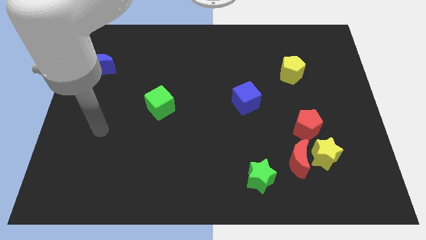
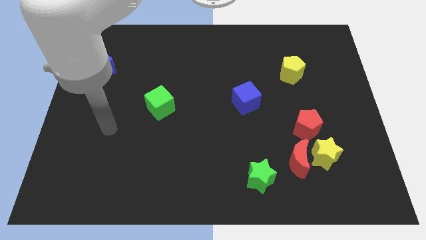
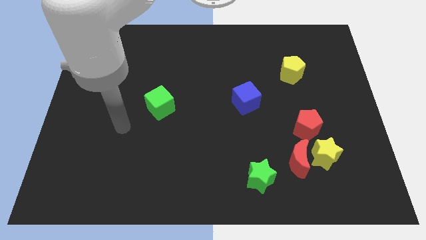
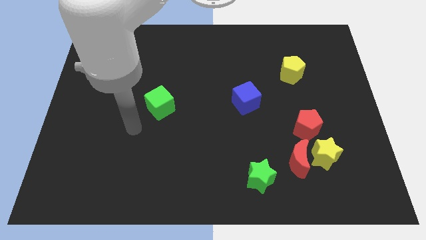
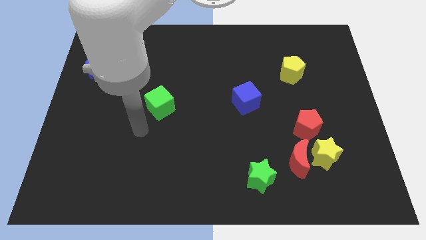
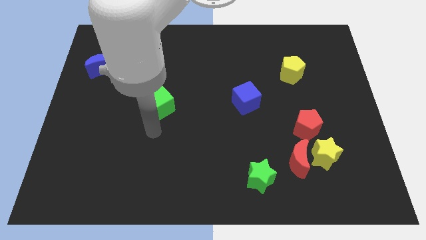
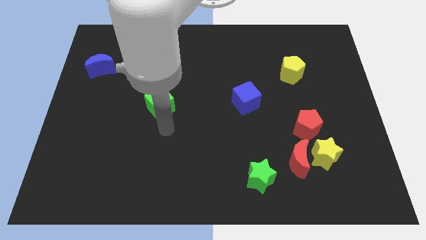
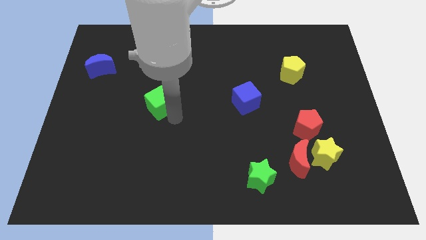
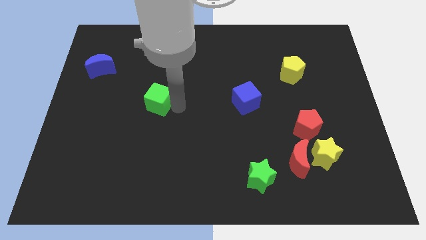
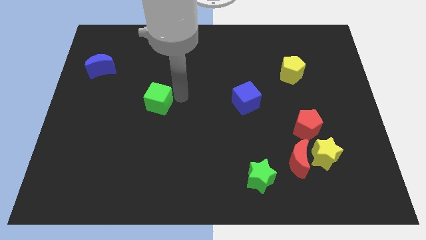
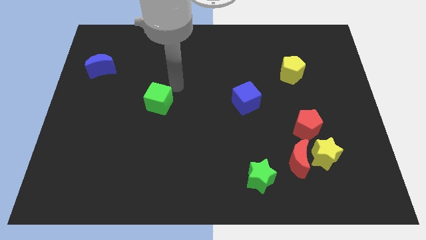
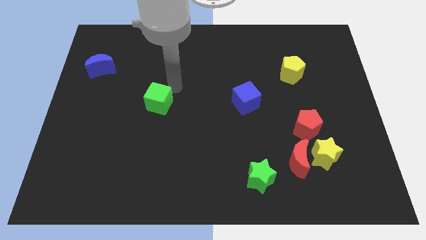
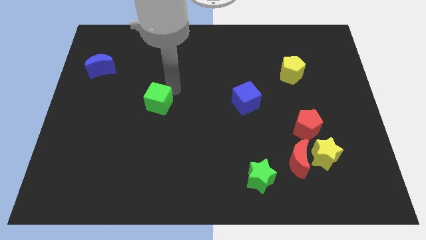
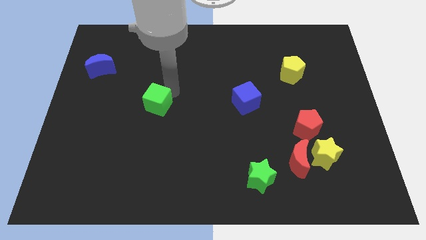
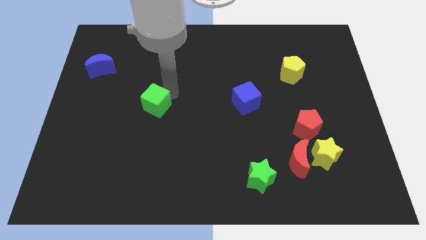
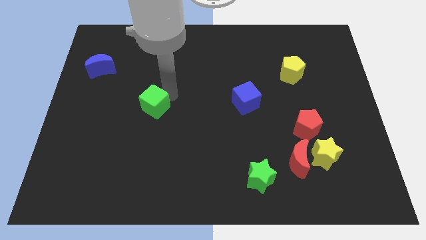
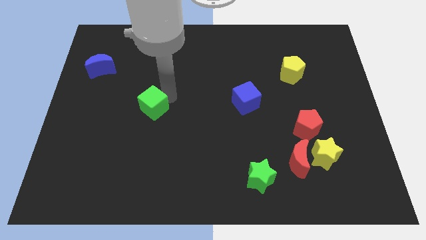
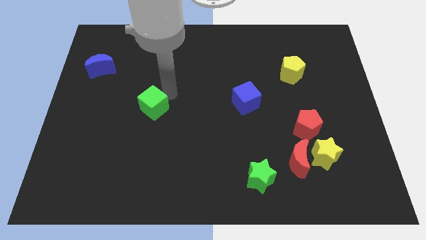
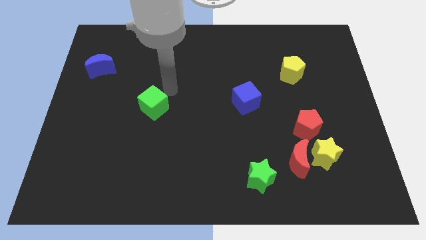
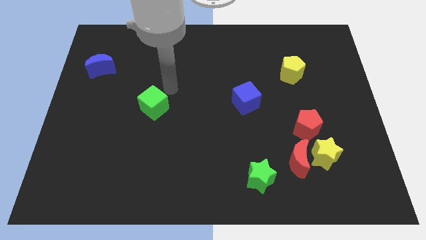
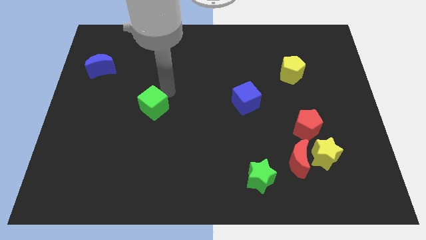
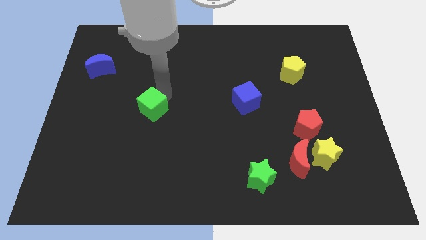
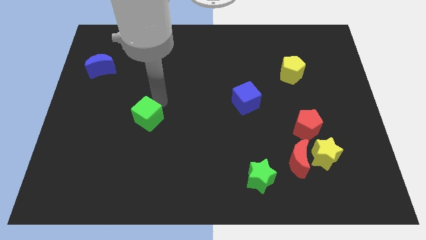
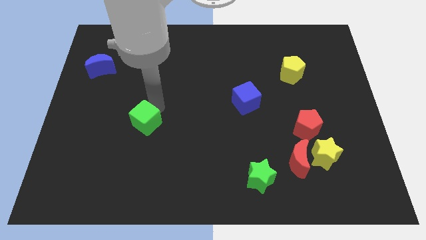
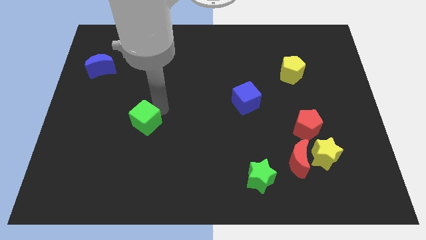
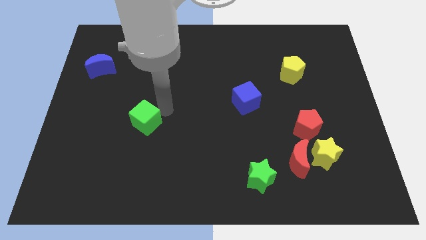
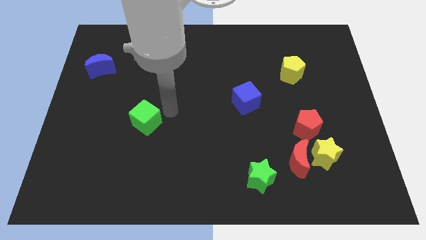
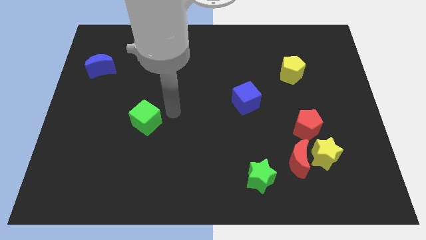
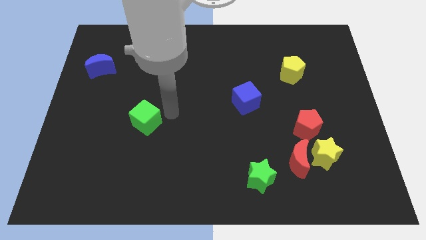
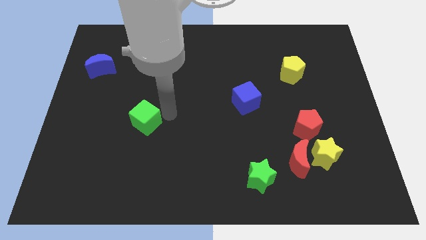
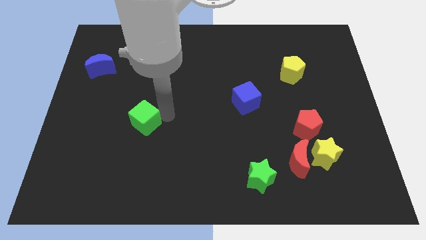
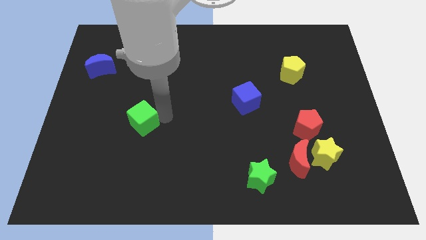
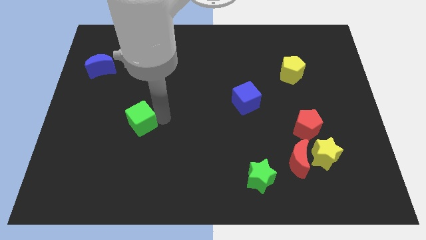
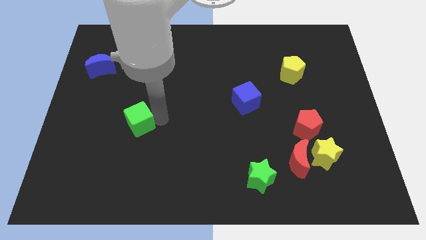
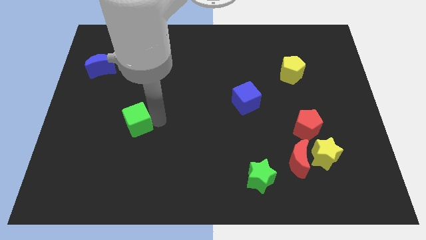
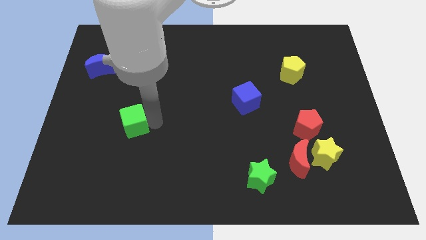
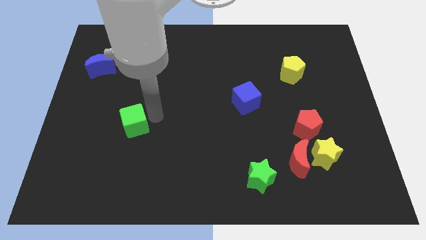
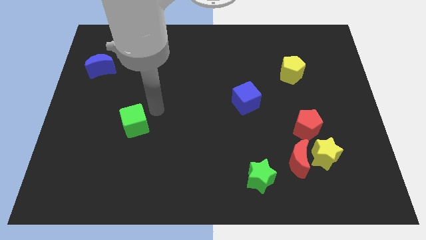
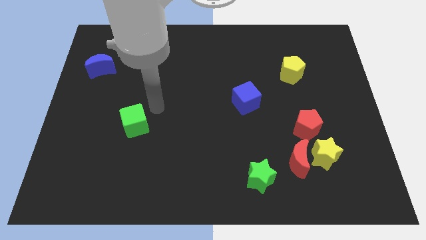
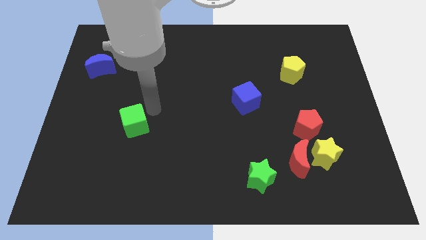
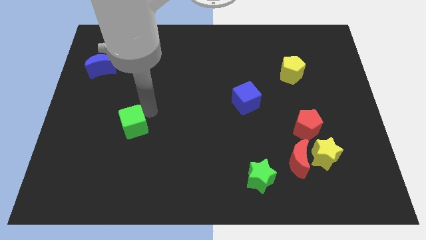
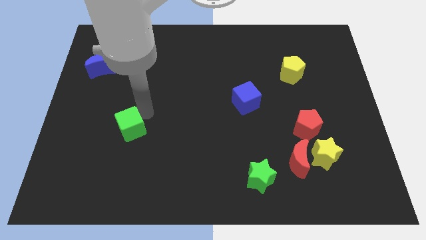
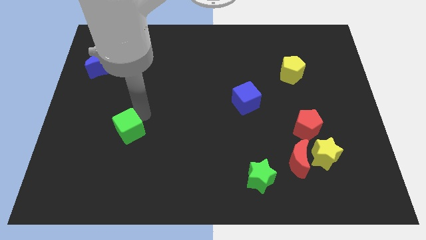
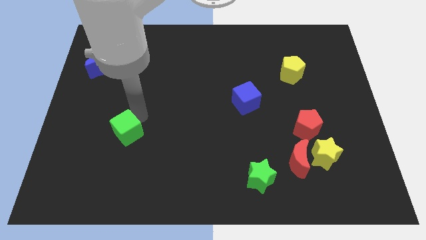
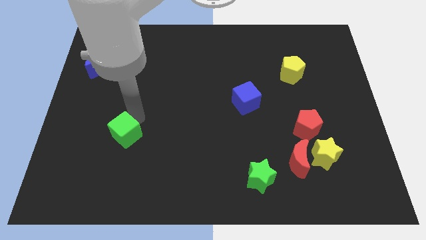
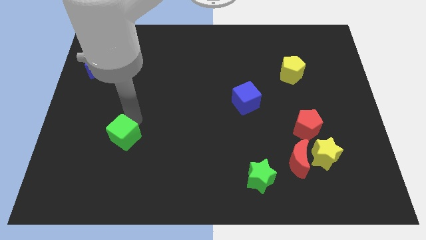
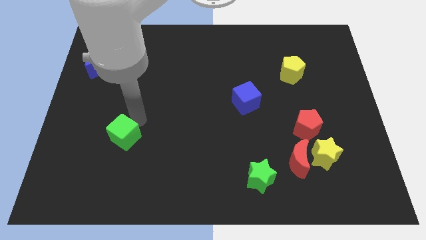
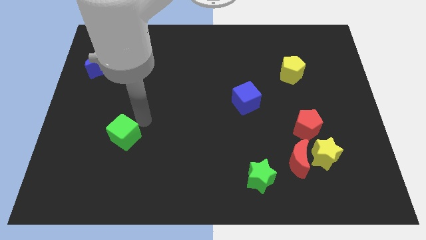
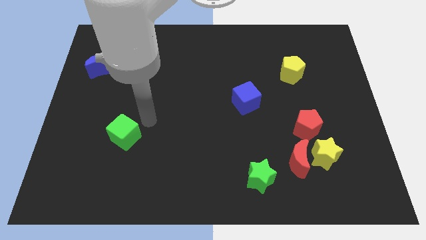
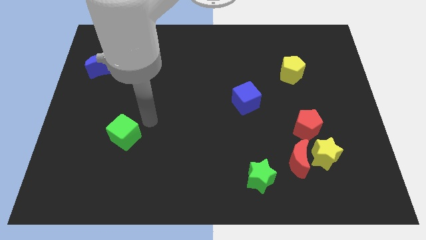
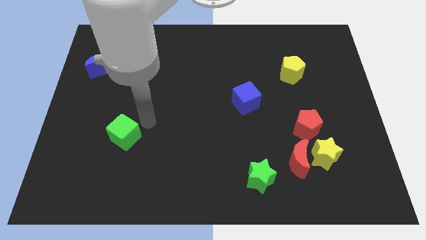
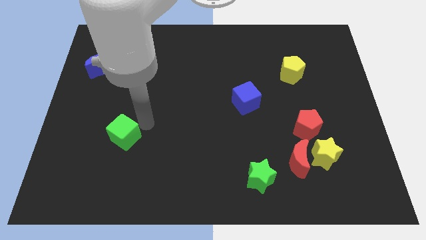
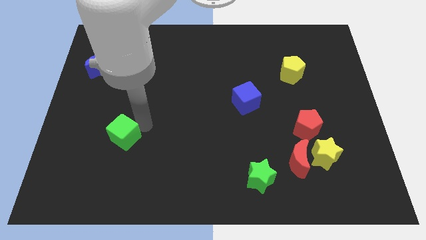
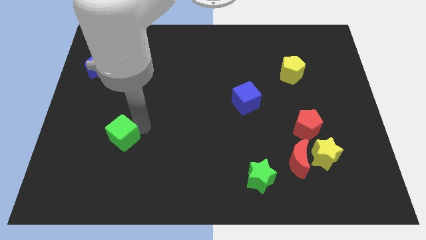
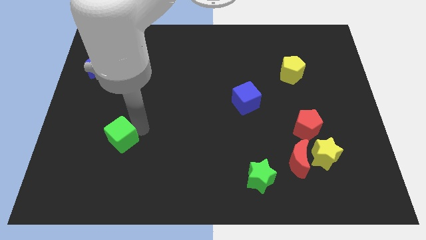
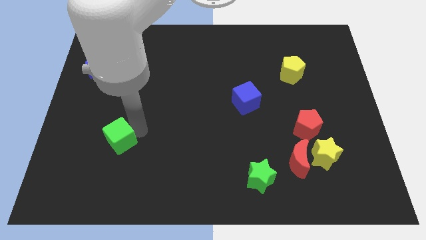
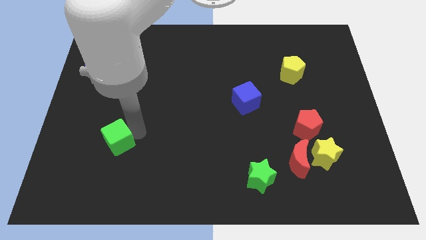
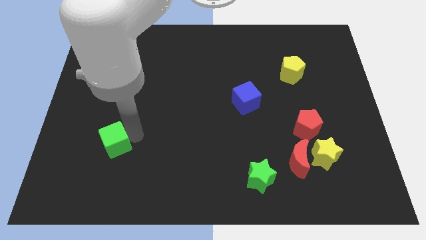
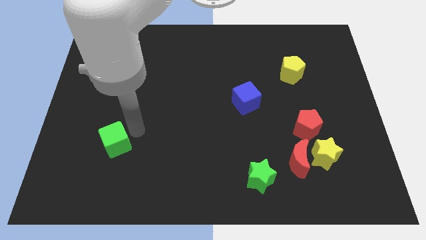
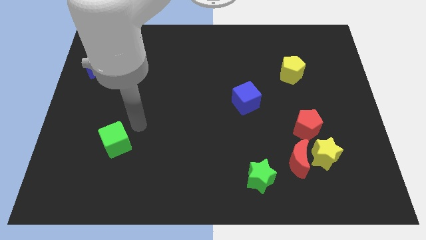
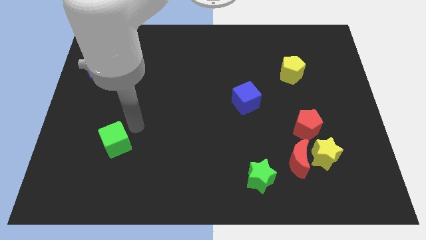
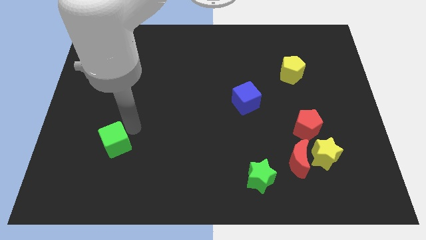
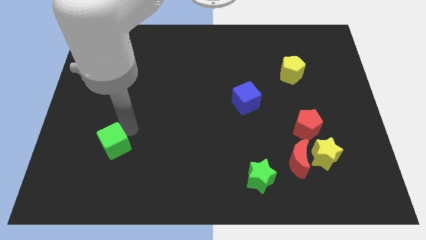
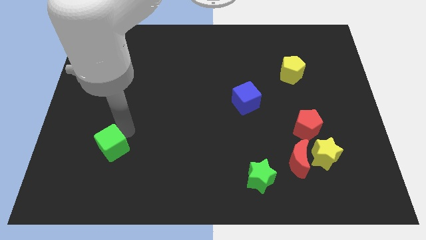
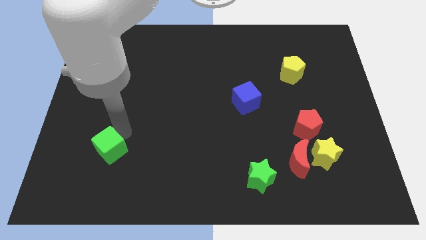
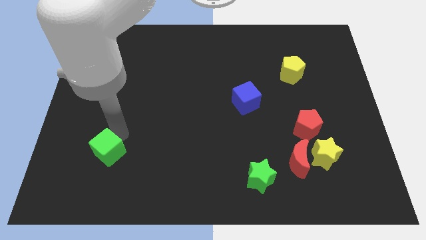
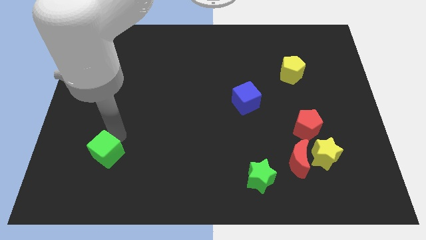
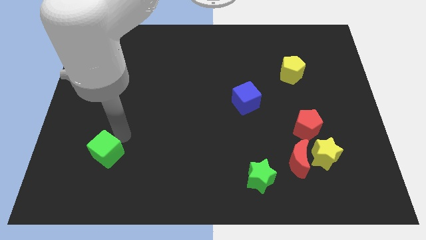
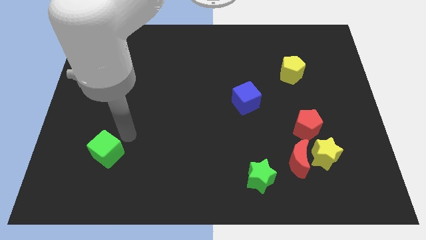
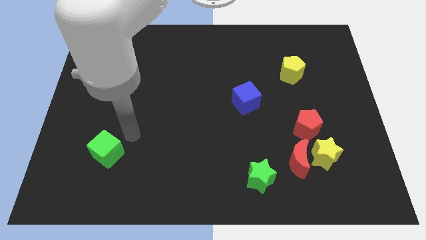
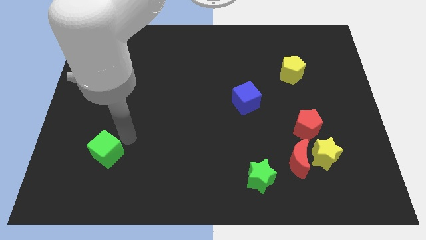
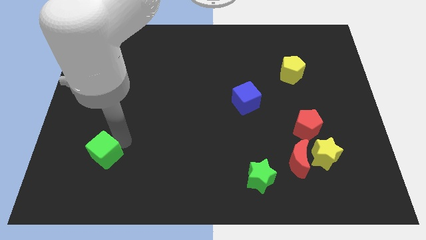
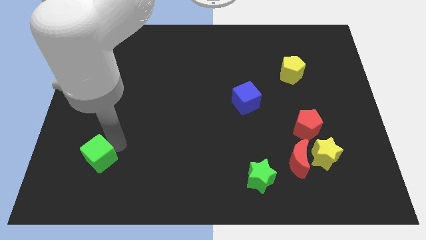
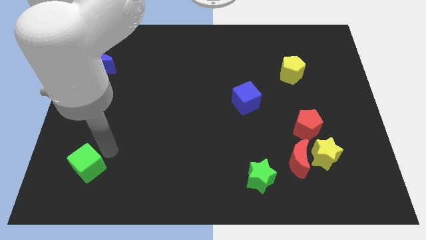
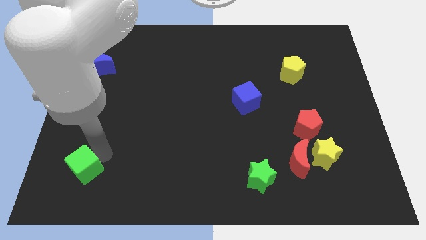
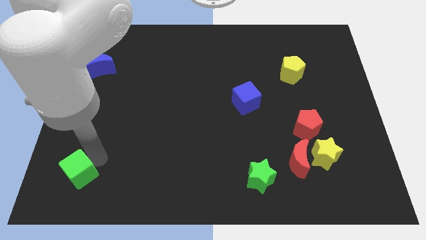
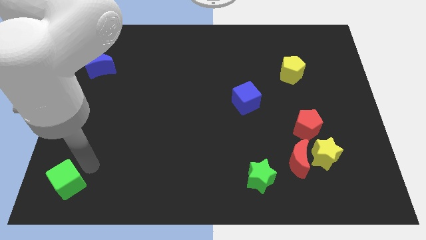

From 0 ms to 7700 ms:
put the green cube to the lower left corner
